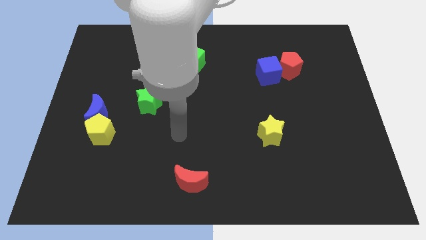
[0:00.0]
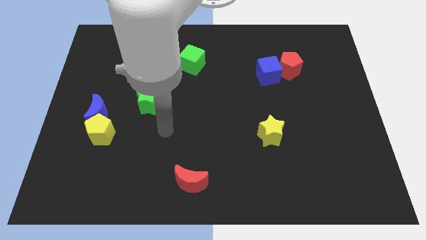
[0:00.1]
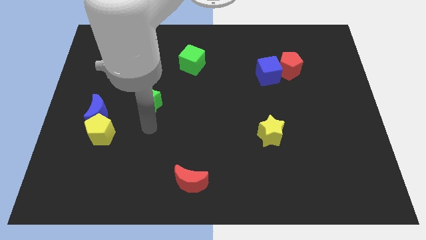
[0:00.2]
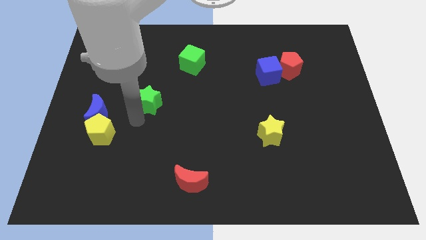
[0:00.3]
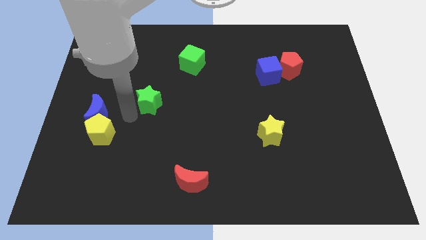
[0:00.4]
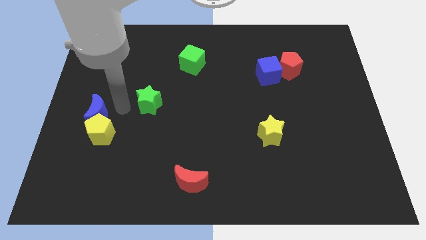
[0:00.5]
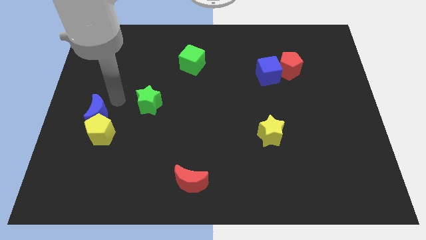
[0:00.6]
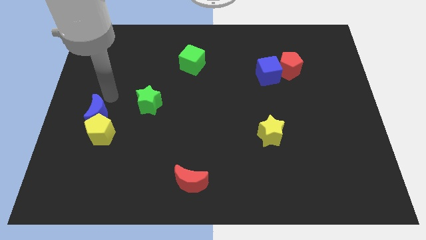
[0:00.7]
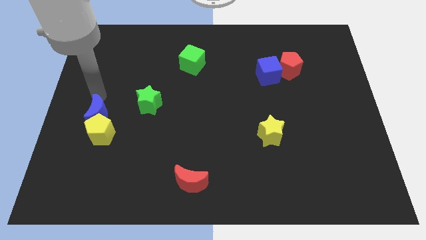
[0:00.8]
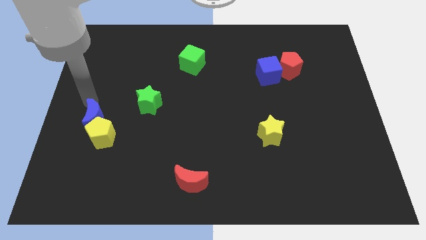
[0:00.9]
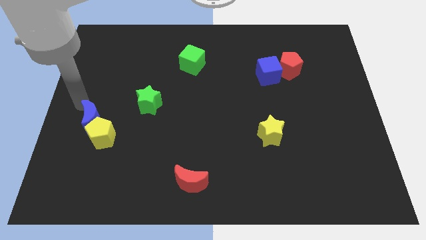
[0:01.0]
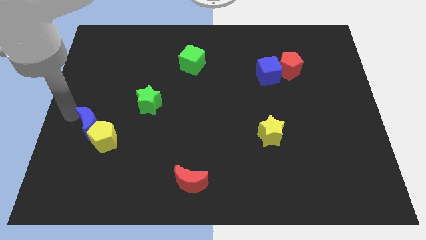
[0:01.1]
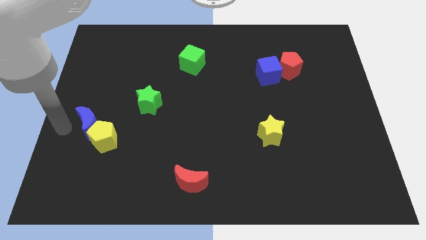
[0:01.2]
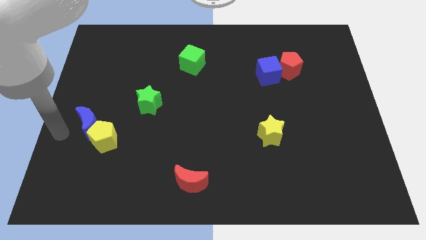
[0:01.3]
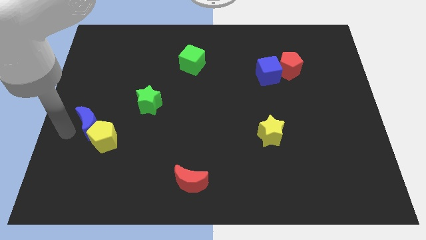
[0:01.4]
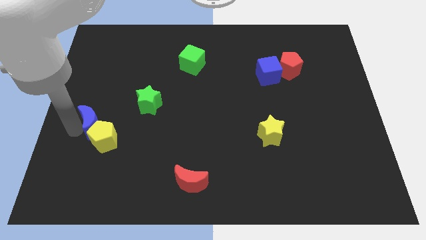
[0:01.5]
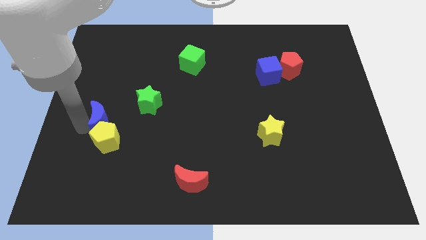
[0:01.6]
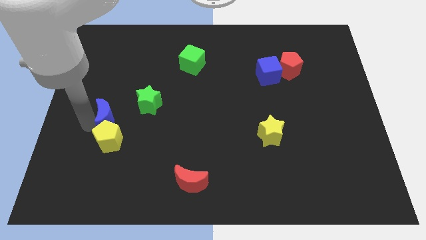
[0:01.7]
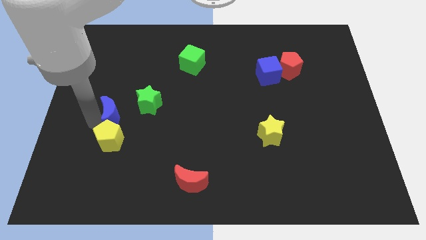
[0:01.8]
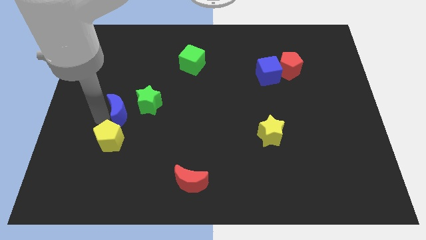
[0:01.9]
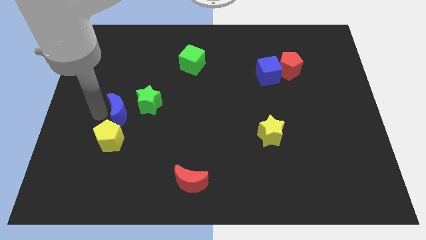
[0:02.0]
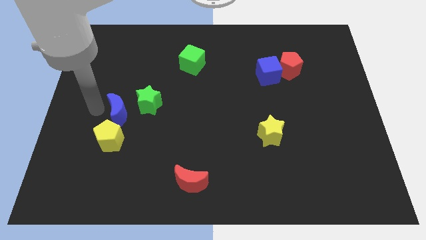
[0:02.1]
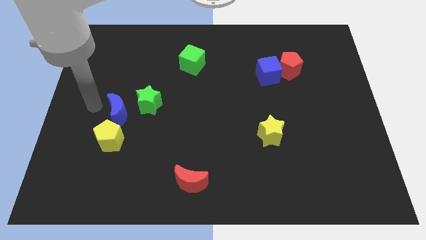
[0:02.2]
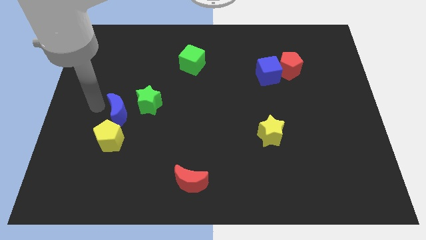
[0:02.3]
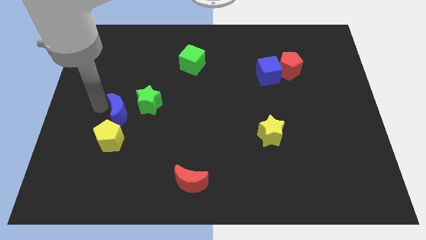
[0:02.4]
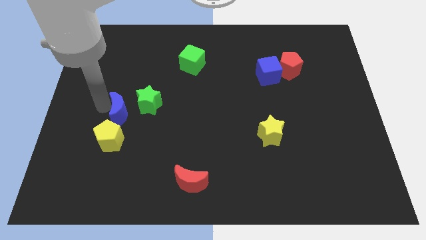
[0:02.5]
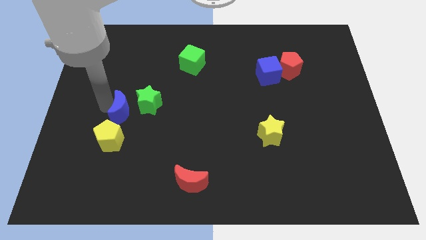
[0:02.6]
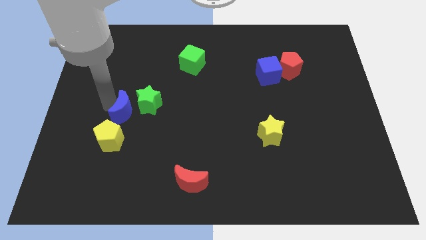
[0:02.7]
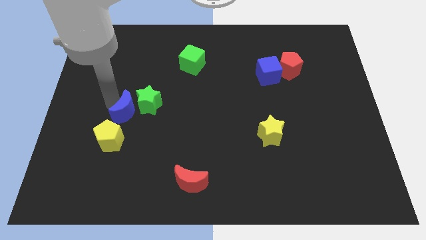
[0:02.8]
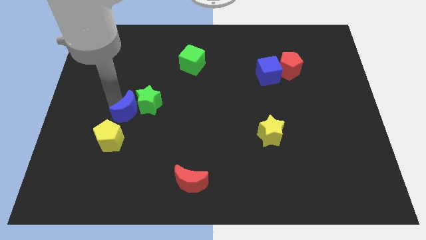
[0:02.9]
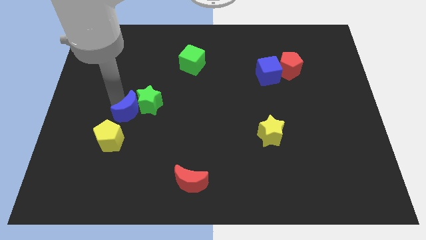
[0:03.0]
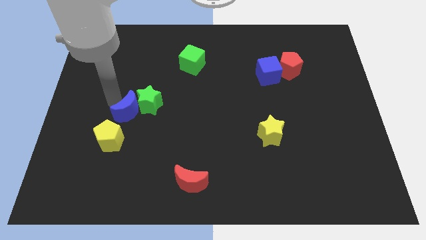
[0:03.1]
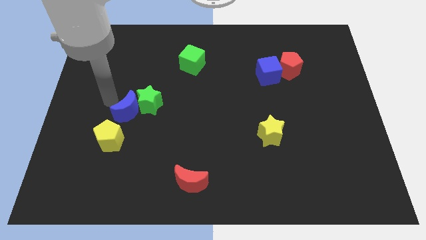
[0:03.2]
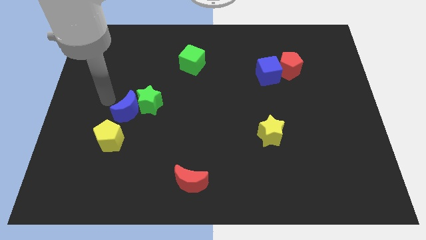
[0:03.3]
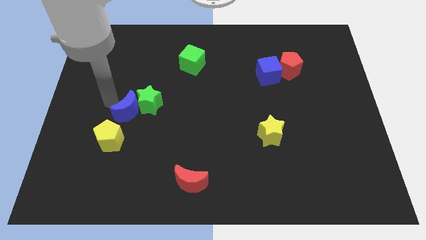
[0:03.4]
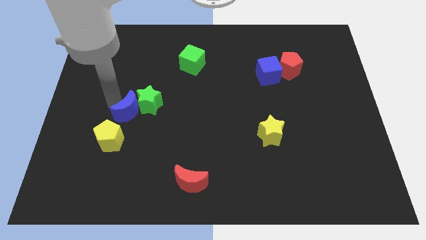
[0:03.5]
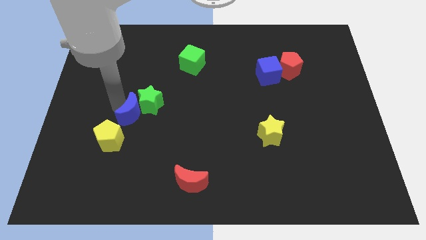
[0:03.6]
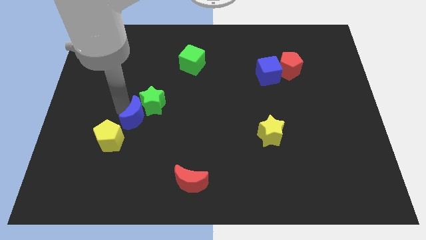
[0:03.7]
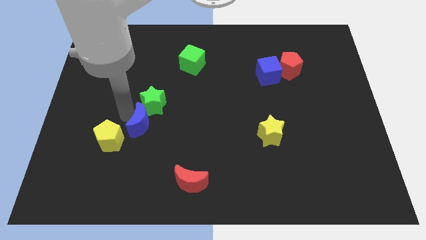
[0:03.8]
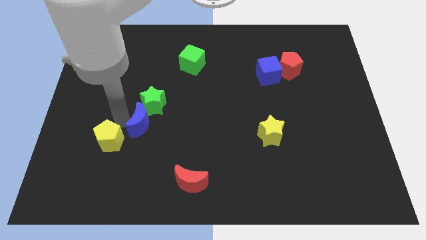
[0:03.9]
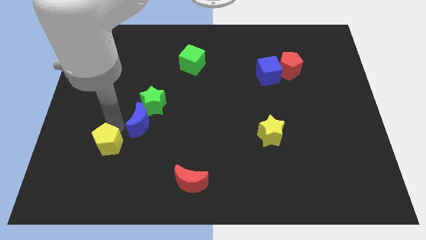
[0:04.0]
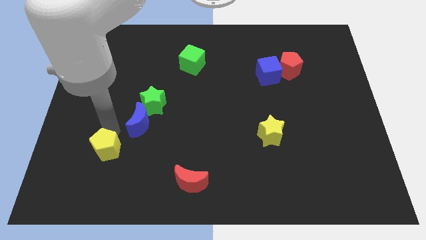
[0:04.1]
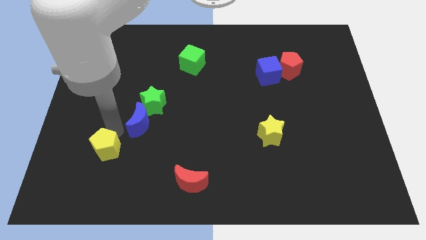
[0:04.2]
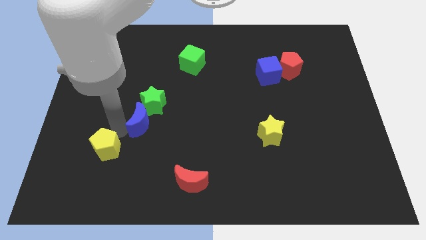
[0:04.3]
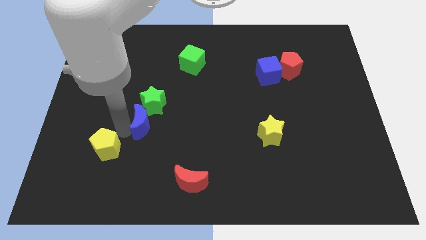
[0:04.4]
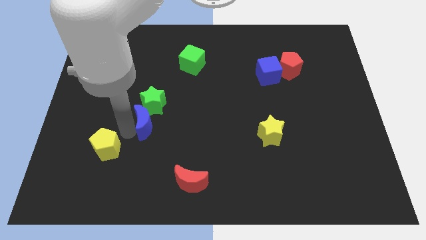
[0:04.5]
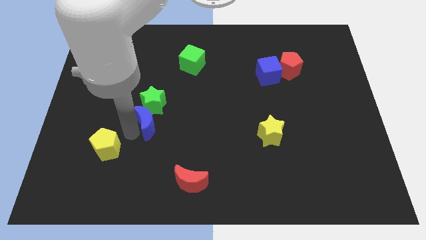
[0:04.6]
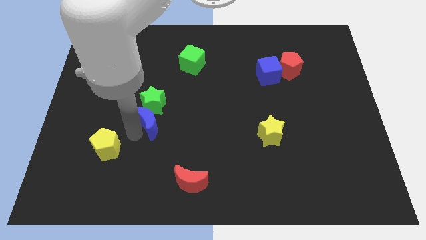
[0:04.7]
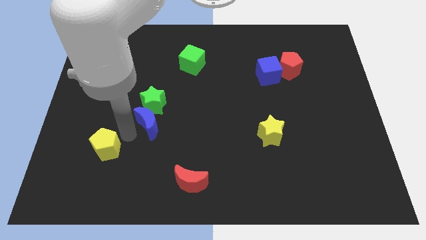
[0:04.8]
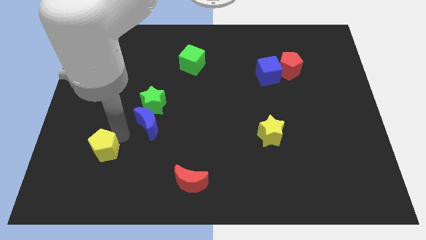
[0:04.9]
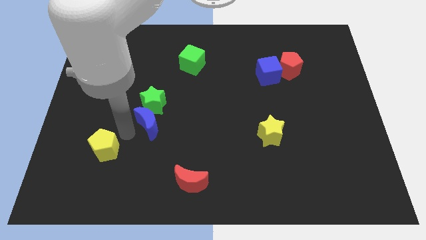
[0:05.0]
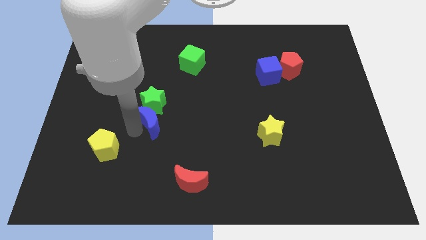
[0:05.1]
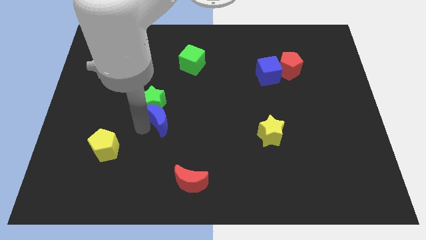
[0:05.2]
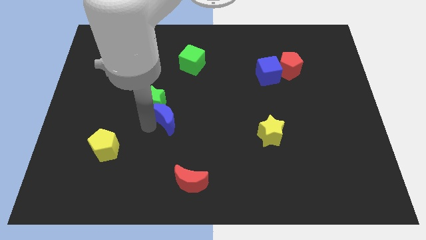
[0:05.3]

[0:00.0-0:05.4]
move the blue moon to the center

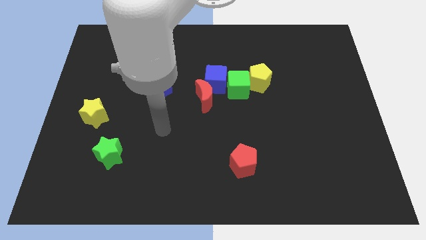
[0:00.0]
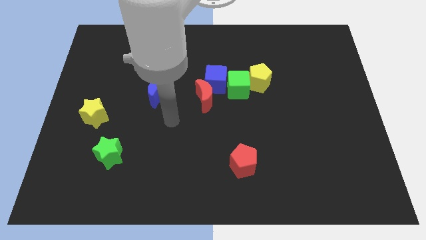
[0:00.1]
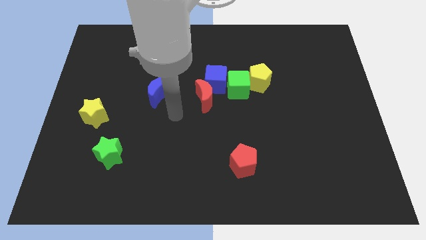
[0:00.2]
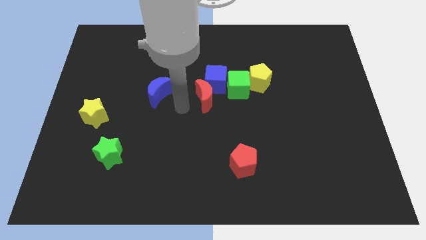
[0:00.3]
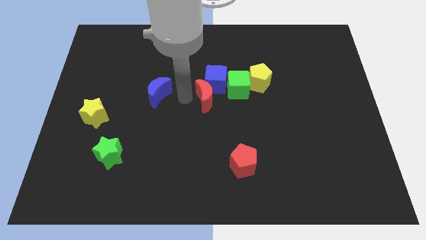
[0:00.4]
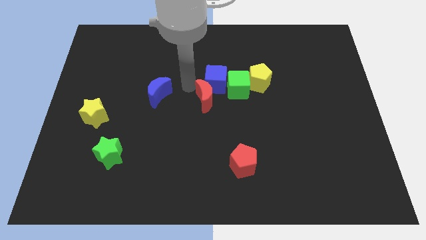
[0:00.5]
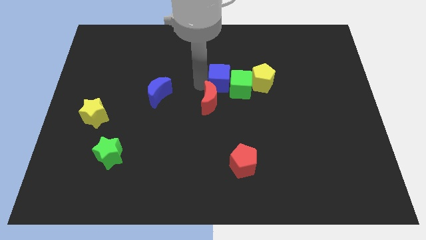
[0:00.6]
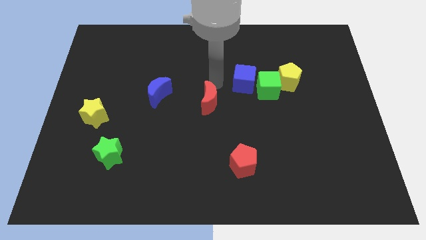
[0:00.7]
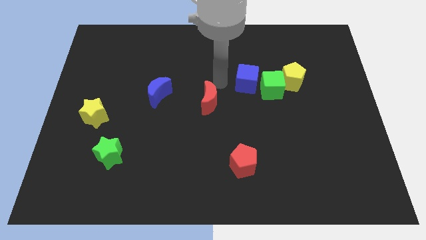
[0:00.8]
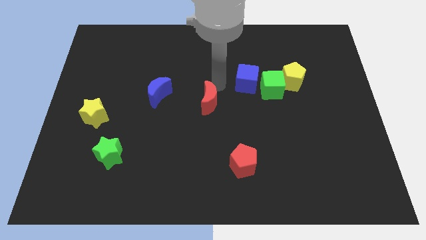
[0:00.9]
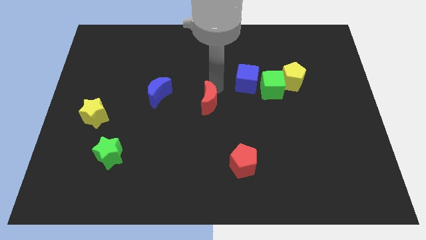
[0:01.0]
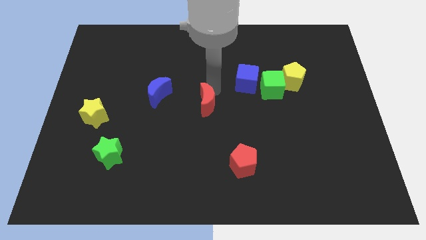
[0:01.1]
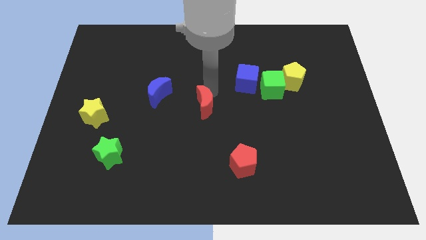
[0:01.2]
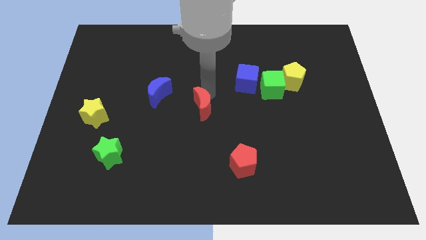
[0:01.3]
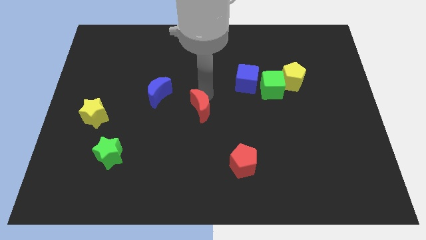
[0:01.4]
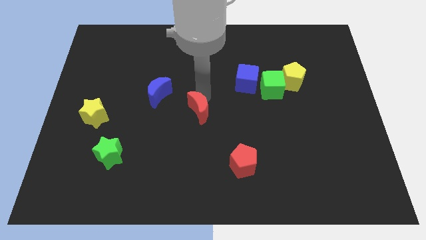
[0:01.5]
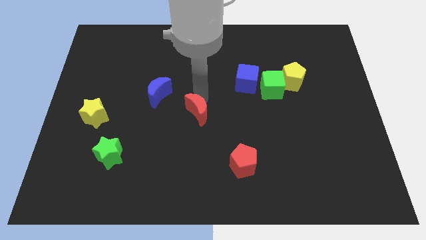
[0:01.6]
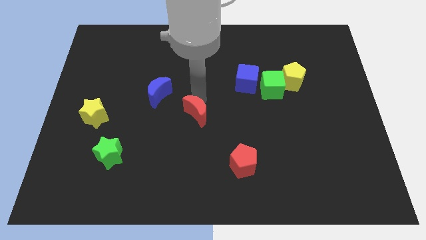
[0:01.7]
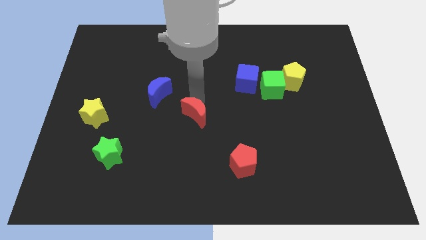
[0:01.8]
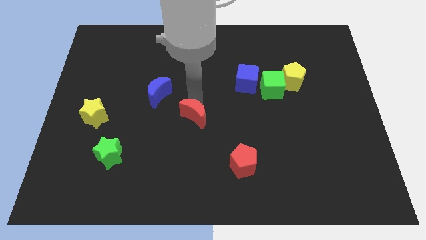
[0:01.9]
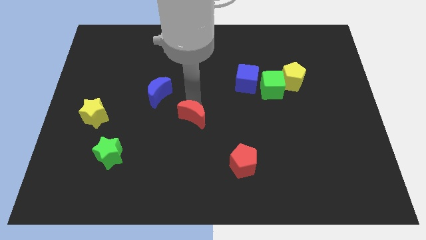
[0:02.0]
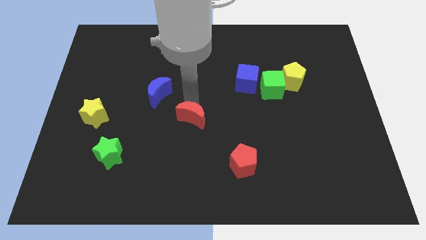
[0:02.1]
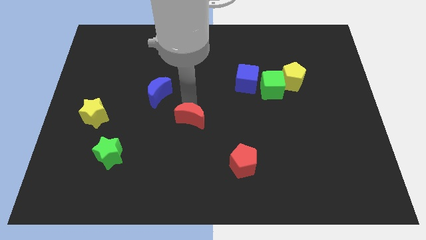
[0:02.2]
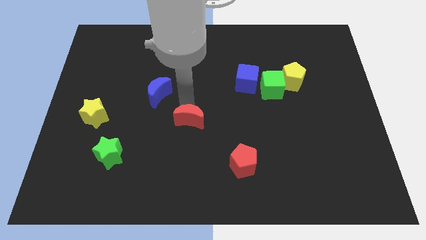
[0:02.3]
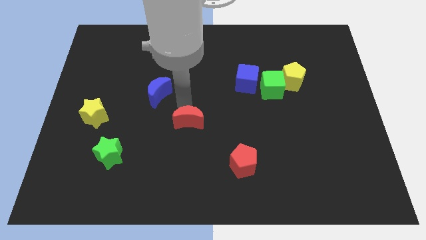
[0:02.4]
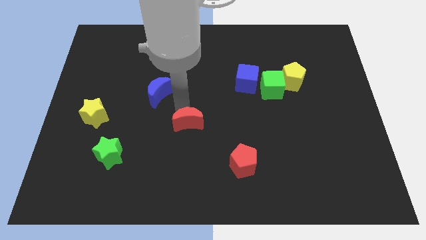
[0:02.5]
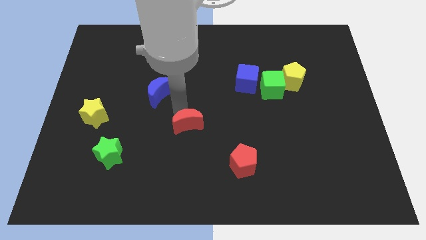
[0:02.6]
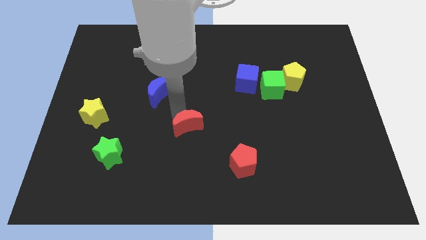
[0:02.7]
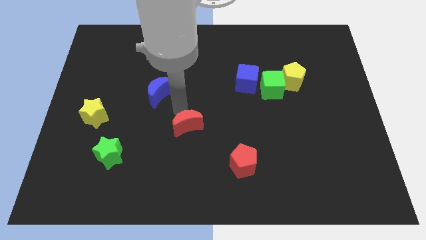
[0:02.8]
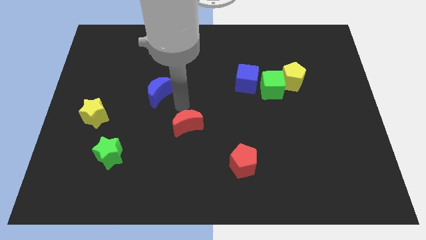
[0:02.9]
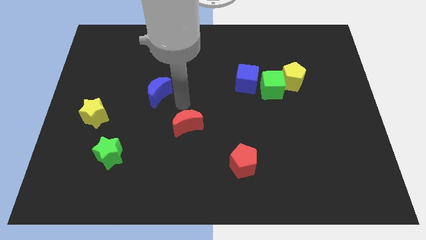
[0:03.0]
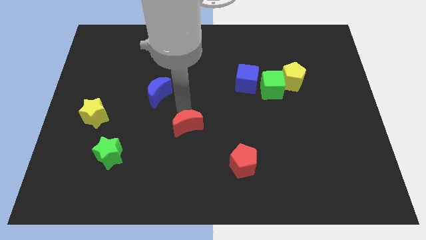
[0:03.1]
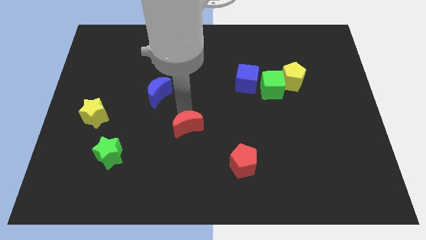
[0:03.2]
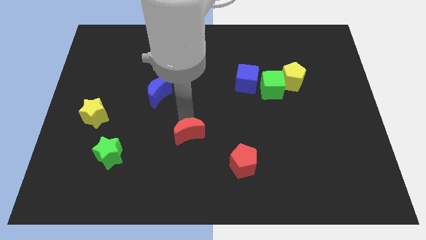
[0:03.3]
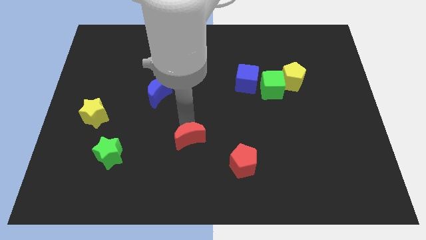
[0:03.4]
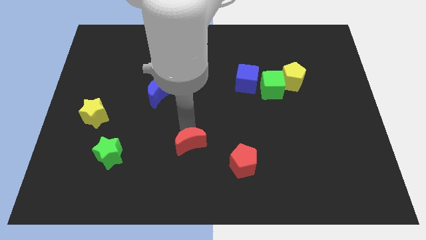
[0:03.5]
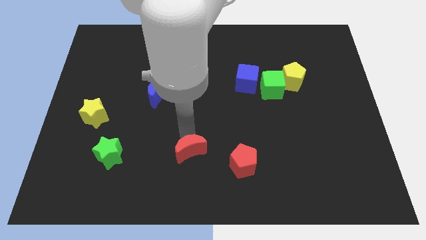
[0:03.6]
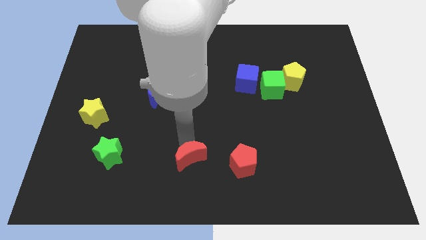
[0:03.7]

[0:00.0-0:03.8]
put the red moon to the bottom side
